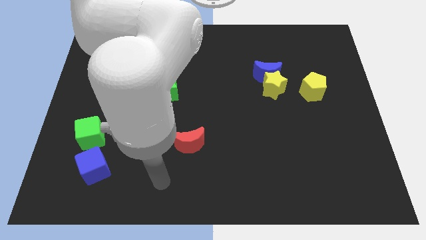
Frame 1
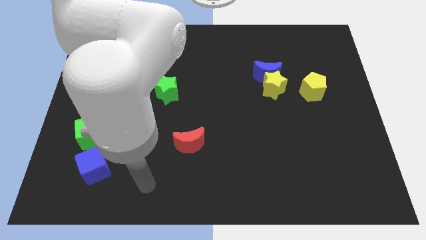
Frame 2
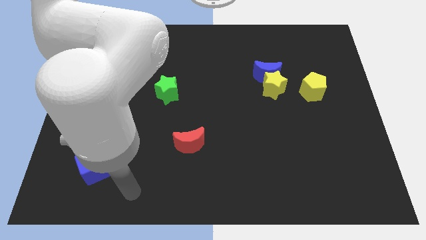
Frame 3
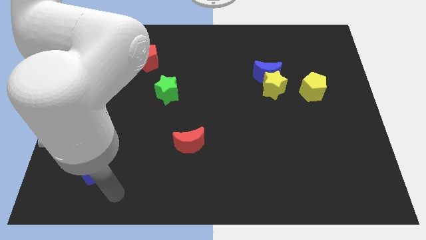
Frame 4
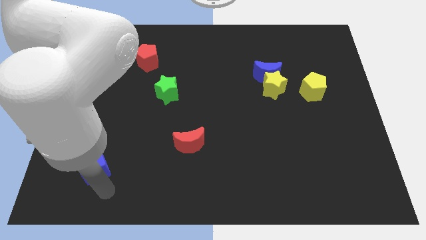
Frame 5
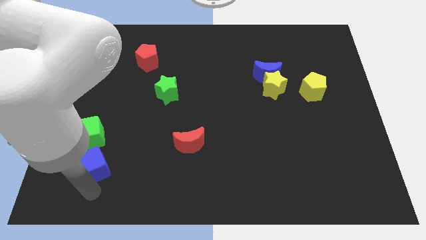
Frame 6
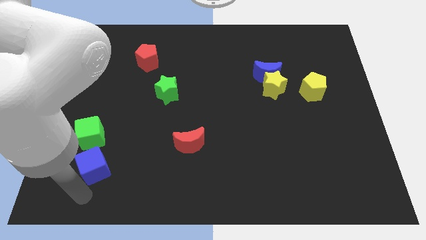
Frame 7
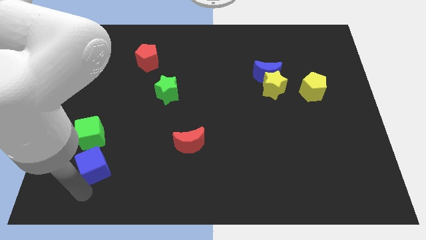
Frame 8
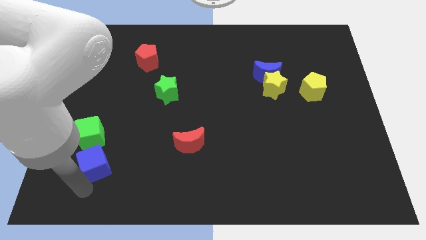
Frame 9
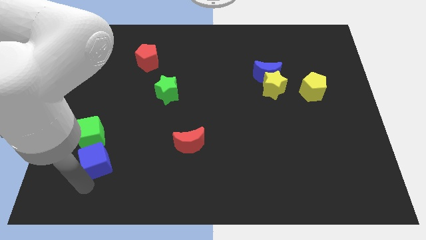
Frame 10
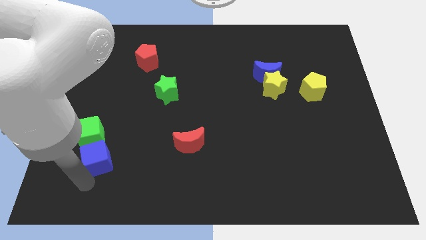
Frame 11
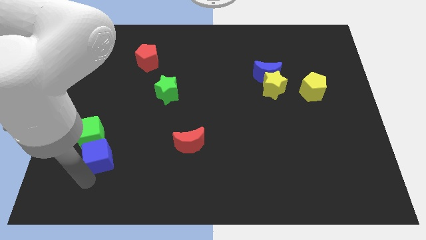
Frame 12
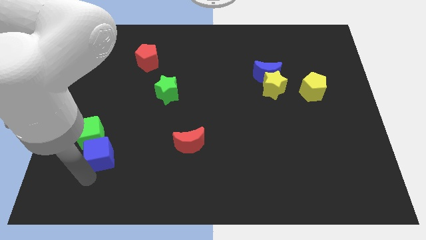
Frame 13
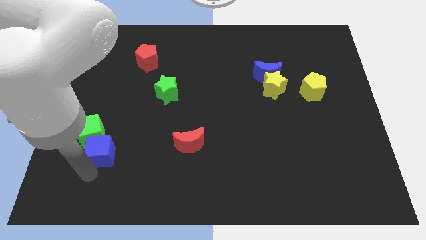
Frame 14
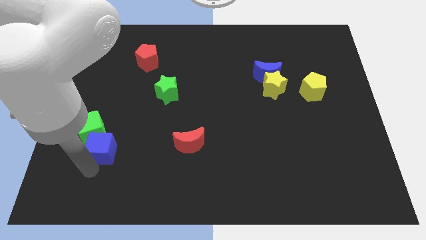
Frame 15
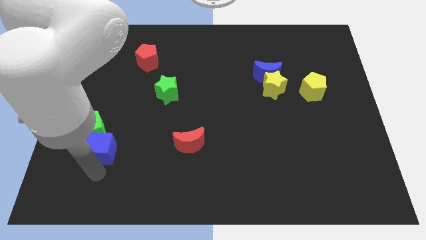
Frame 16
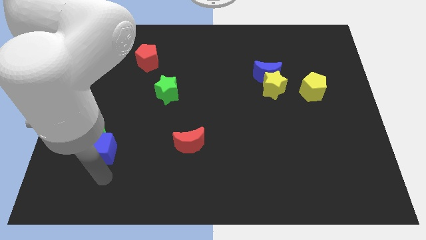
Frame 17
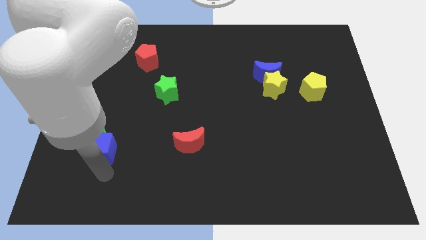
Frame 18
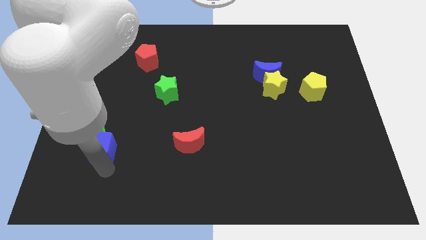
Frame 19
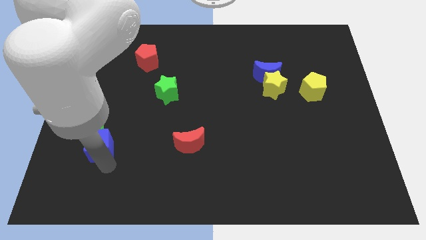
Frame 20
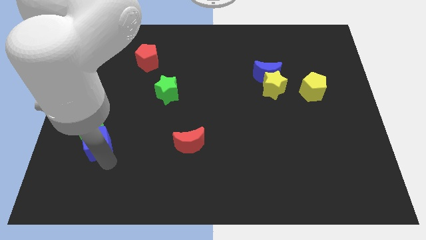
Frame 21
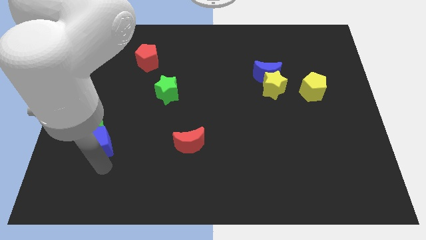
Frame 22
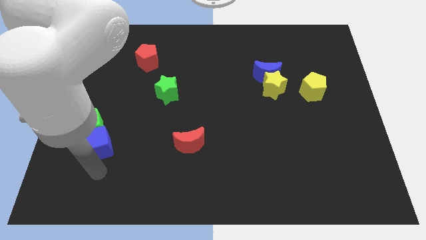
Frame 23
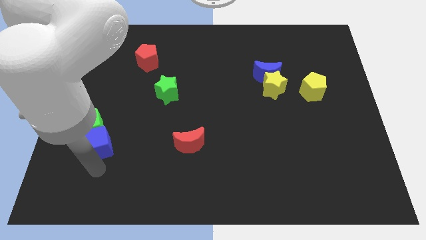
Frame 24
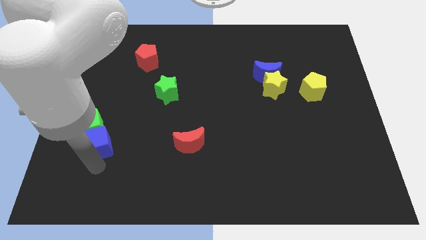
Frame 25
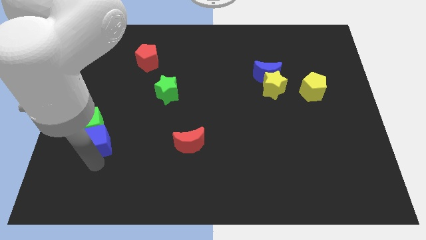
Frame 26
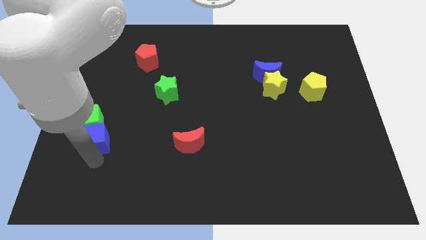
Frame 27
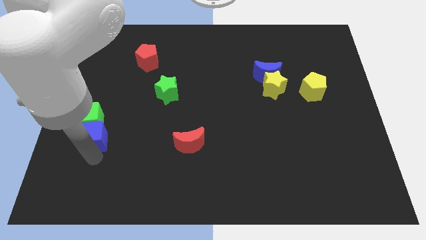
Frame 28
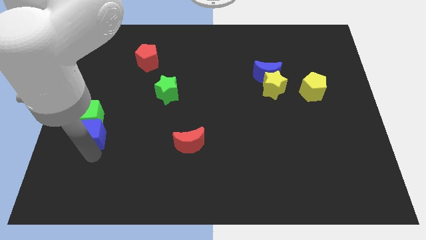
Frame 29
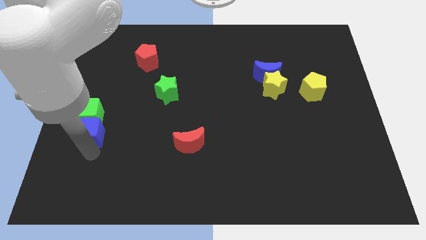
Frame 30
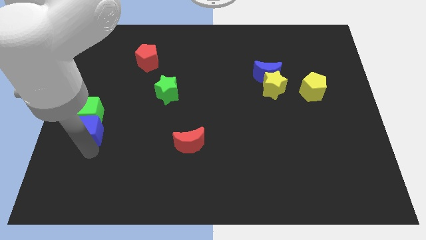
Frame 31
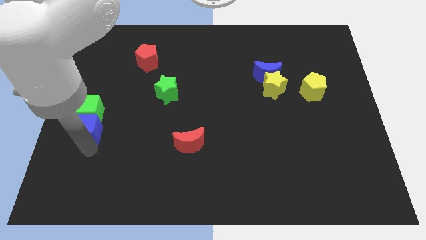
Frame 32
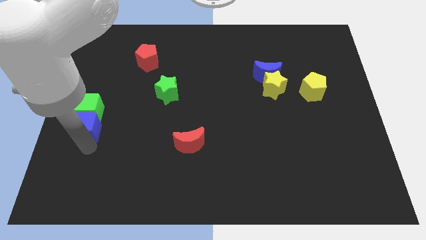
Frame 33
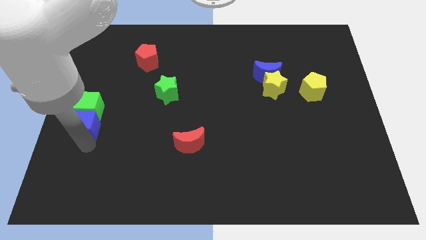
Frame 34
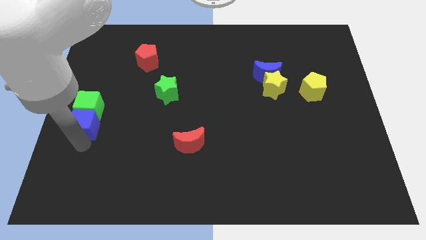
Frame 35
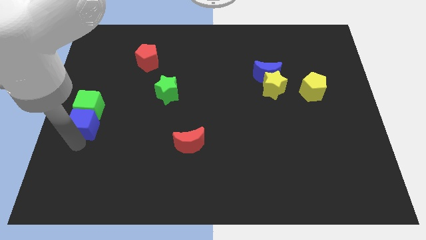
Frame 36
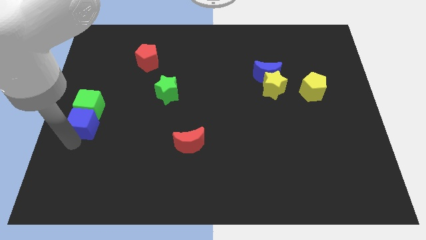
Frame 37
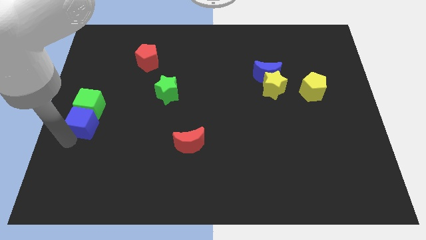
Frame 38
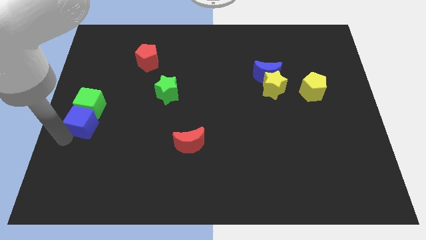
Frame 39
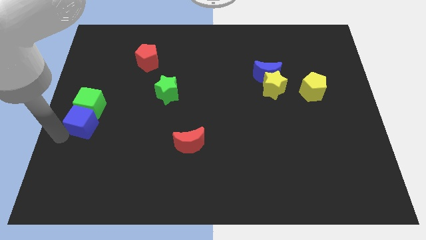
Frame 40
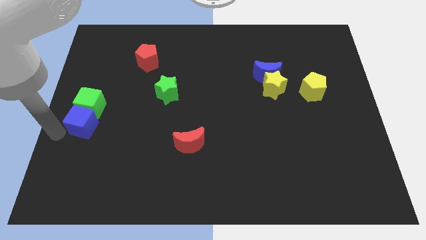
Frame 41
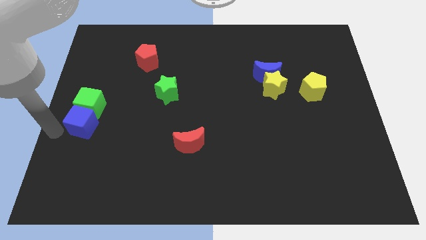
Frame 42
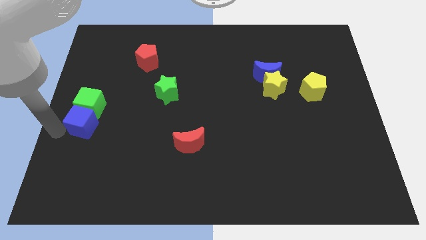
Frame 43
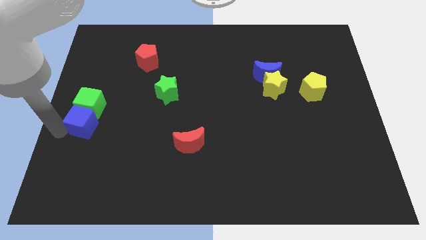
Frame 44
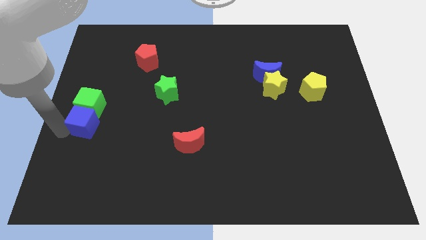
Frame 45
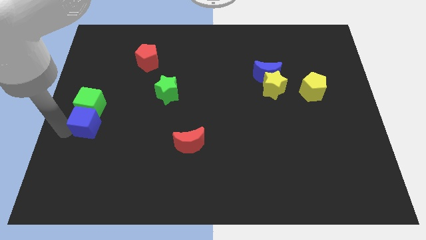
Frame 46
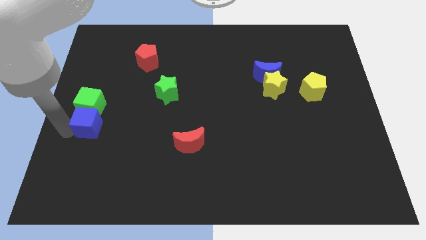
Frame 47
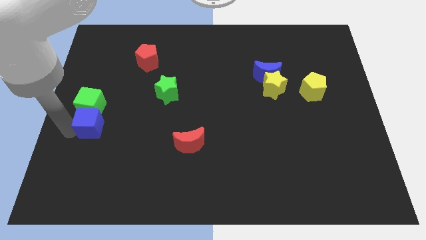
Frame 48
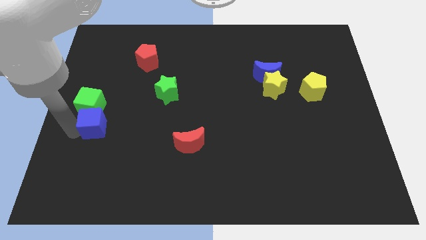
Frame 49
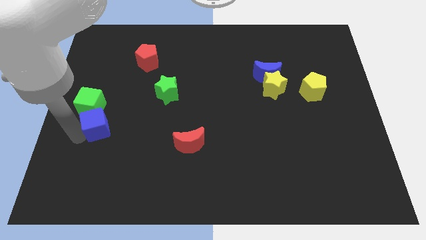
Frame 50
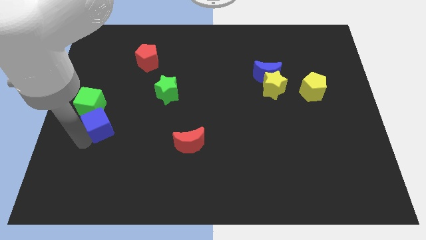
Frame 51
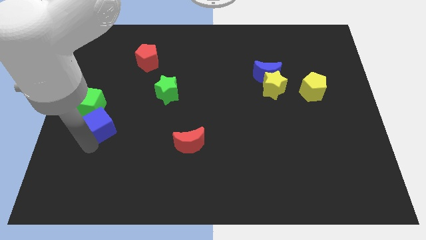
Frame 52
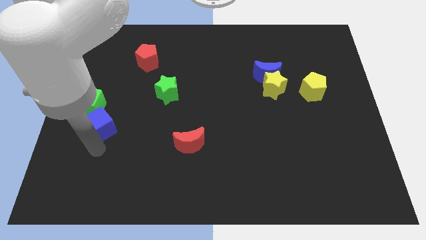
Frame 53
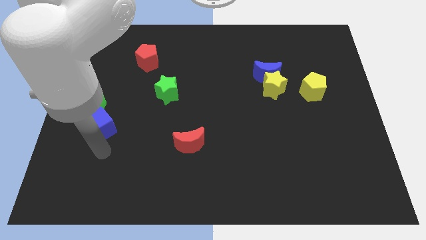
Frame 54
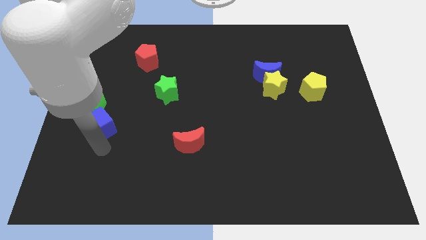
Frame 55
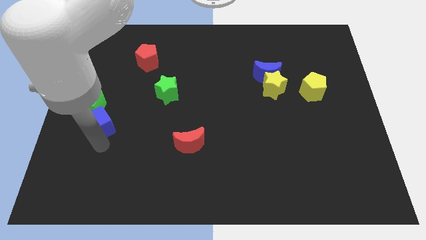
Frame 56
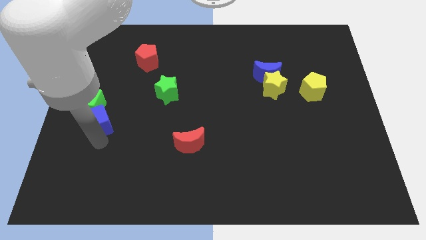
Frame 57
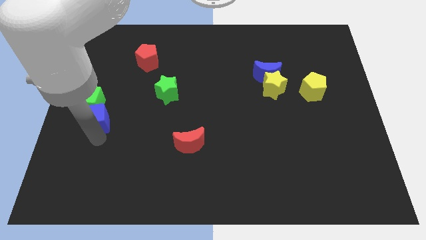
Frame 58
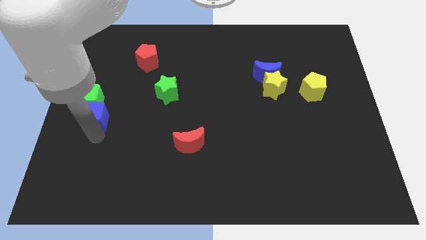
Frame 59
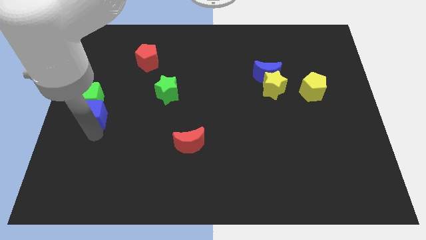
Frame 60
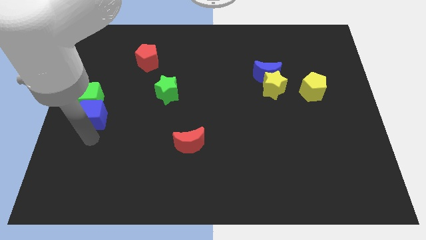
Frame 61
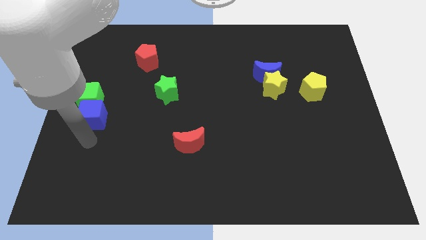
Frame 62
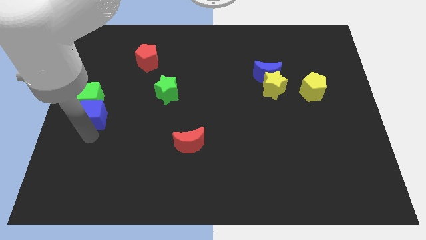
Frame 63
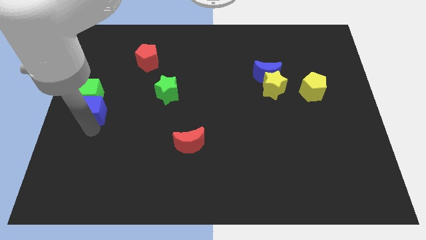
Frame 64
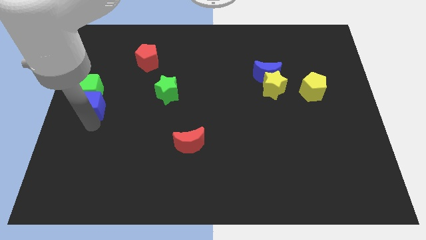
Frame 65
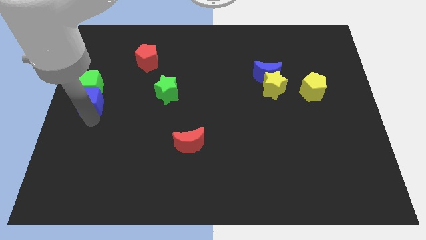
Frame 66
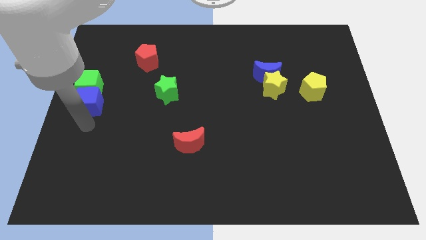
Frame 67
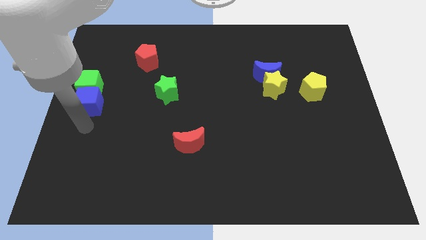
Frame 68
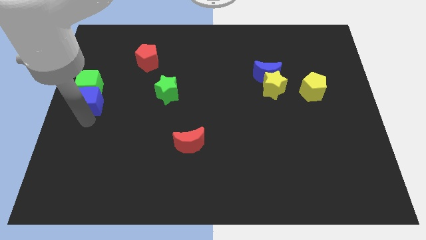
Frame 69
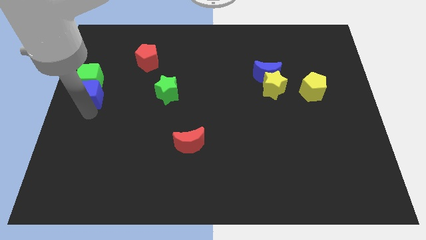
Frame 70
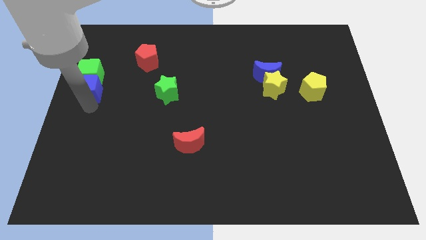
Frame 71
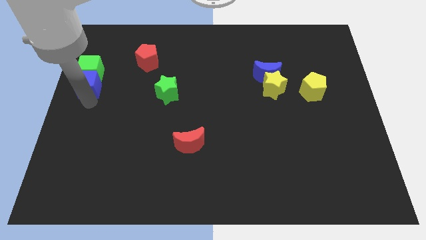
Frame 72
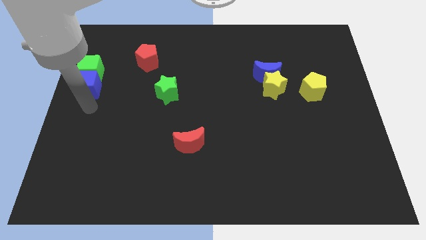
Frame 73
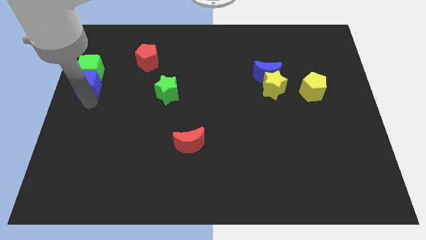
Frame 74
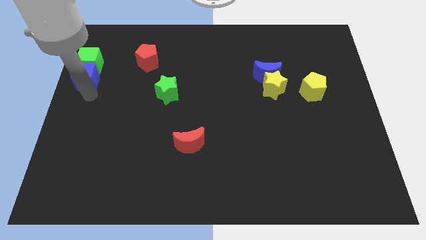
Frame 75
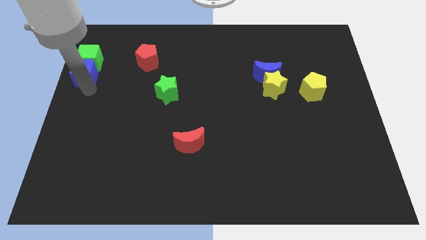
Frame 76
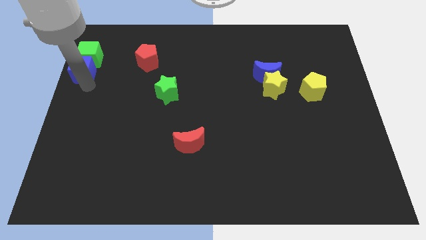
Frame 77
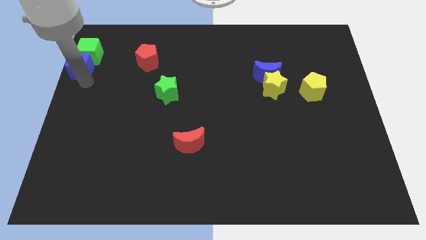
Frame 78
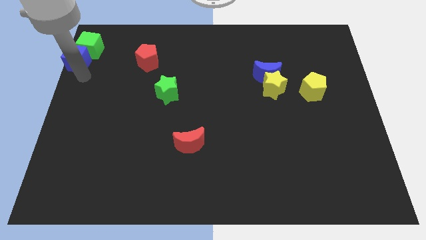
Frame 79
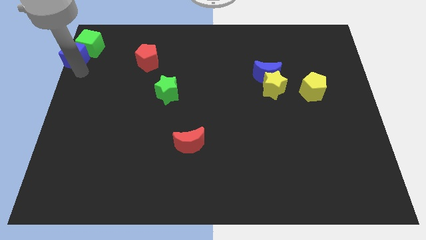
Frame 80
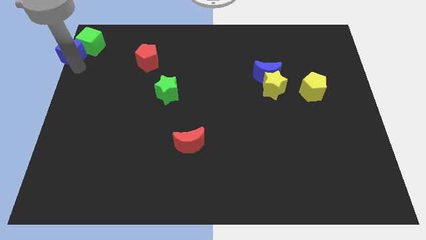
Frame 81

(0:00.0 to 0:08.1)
put the blue cube to the top left corner
